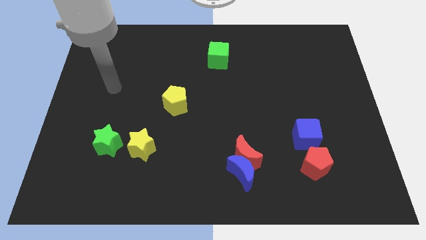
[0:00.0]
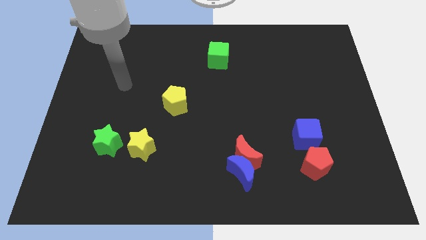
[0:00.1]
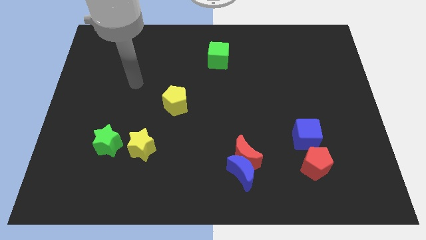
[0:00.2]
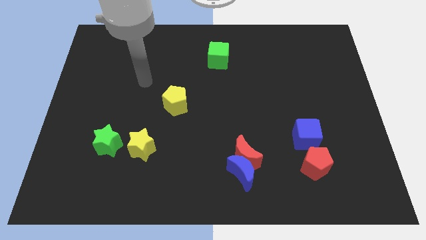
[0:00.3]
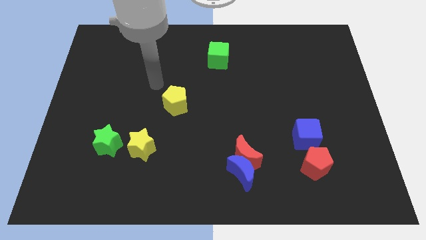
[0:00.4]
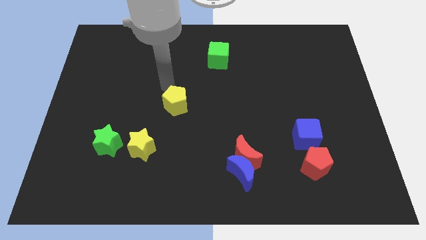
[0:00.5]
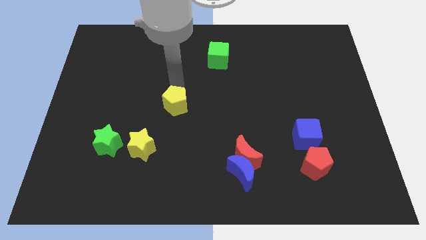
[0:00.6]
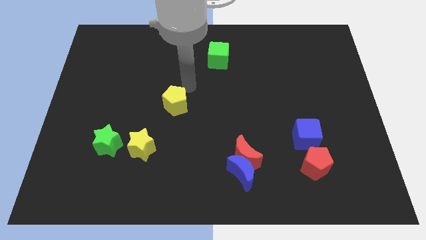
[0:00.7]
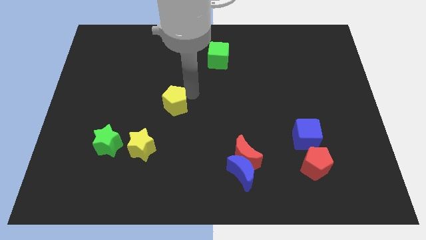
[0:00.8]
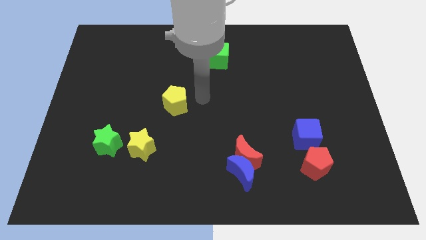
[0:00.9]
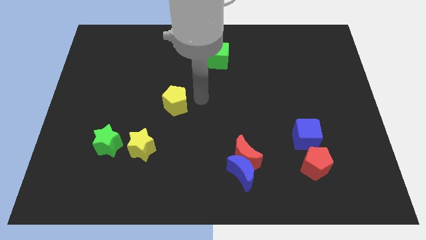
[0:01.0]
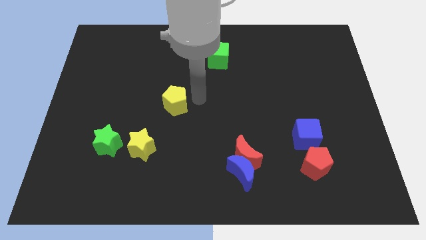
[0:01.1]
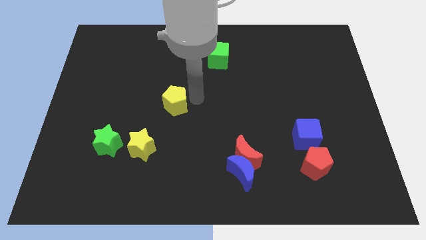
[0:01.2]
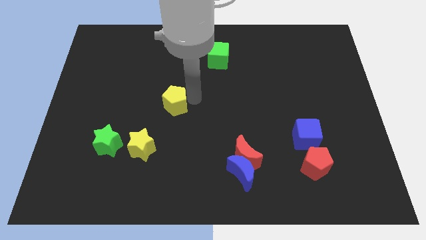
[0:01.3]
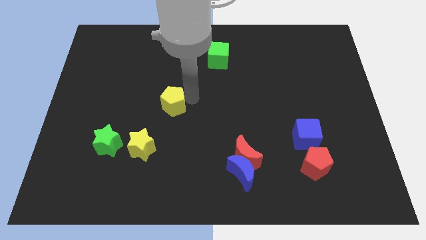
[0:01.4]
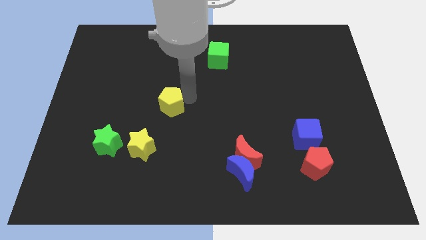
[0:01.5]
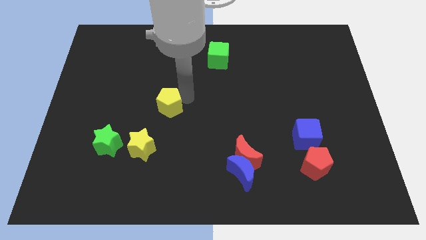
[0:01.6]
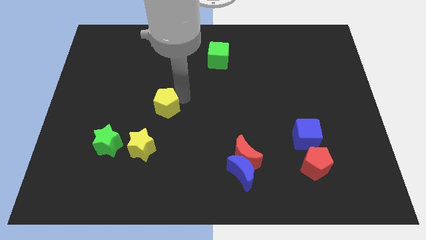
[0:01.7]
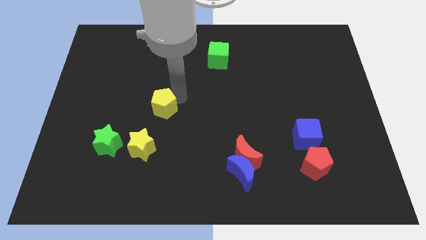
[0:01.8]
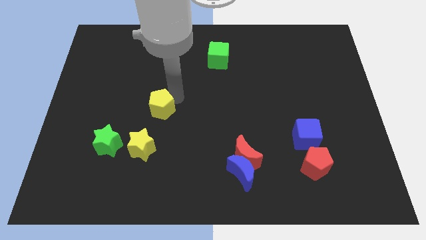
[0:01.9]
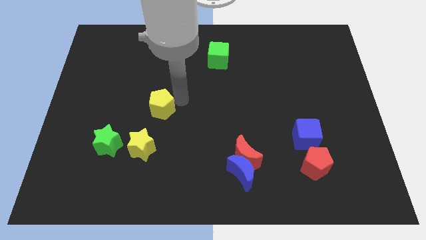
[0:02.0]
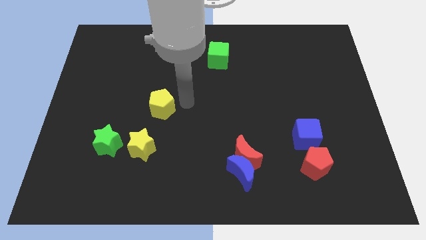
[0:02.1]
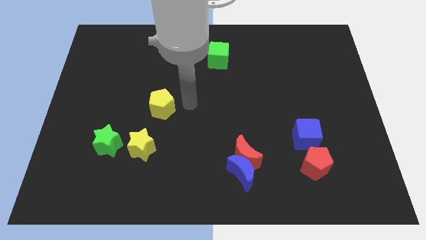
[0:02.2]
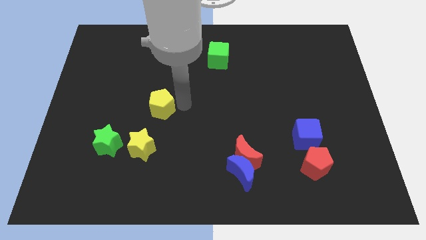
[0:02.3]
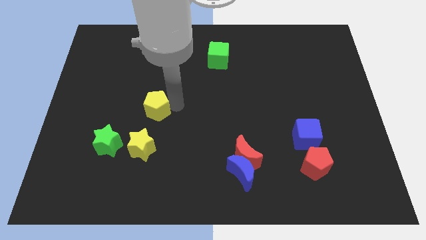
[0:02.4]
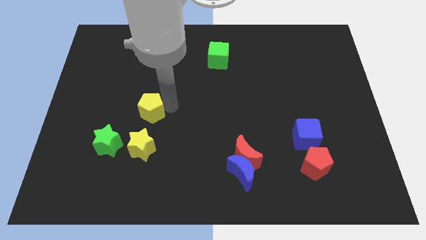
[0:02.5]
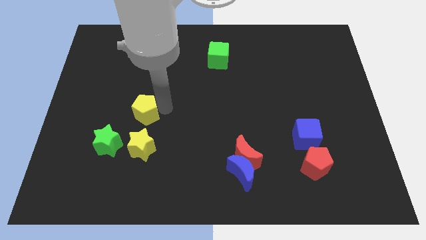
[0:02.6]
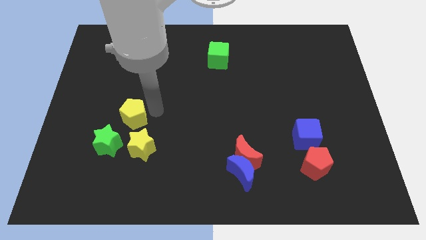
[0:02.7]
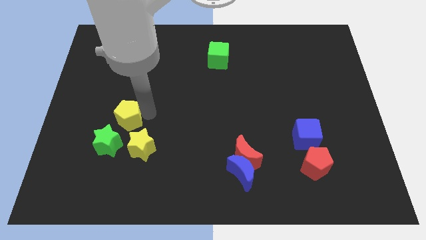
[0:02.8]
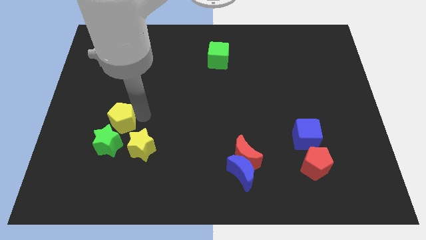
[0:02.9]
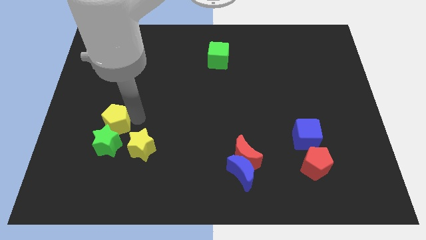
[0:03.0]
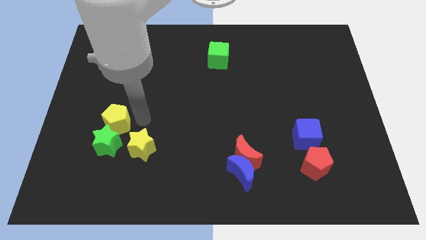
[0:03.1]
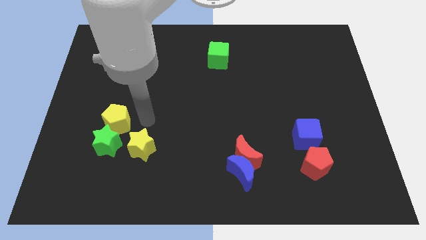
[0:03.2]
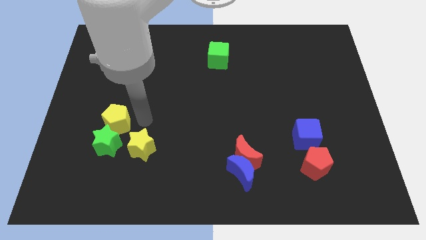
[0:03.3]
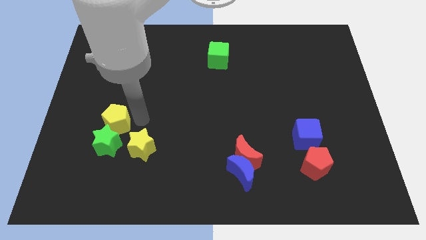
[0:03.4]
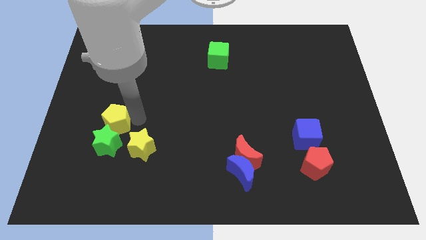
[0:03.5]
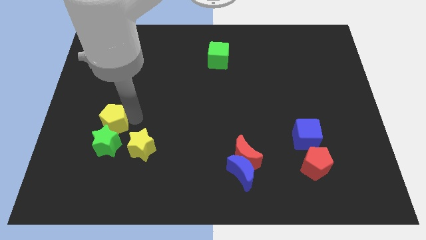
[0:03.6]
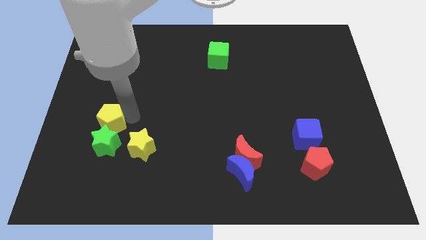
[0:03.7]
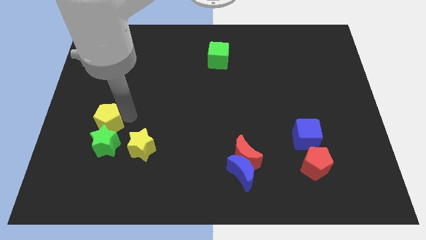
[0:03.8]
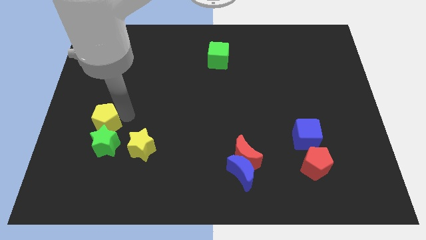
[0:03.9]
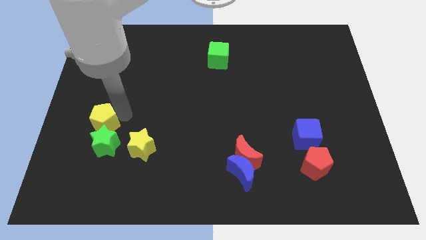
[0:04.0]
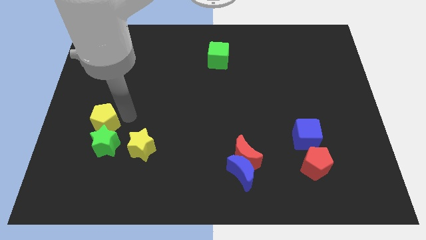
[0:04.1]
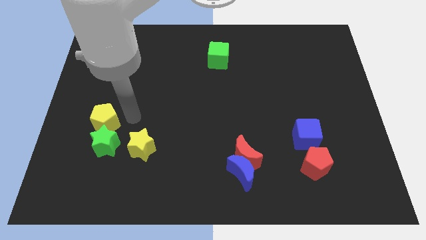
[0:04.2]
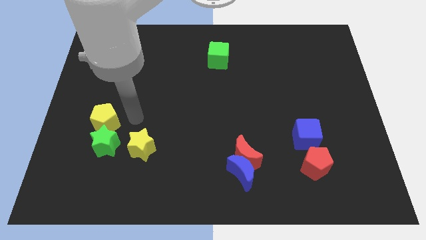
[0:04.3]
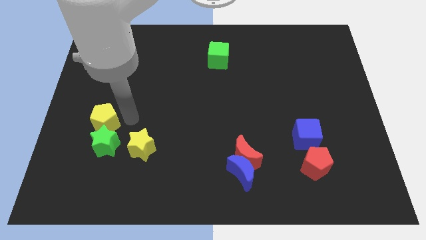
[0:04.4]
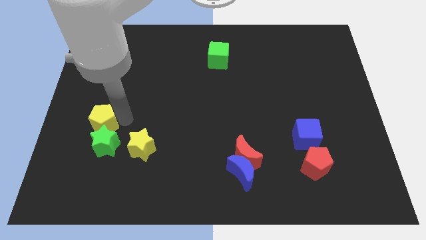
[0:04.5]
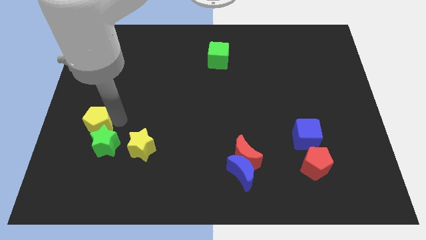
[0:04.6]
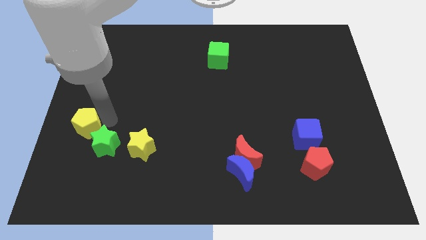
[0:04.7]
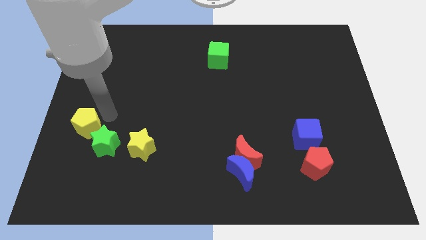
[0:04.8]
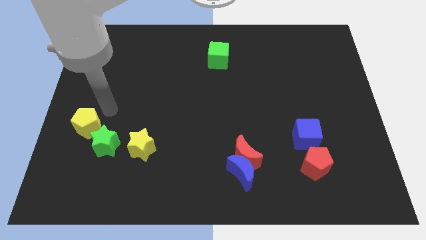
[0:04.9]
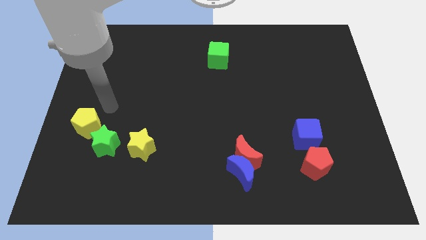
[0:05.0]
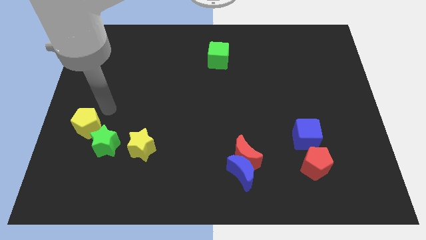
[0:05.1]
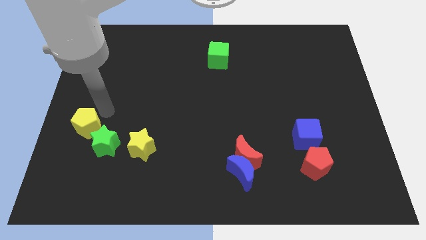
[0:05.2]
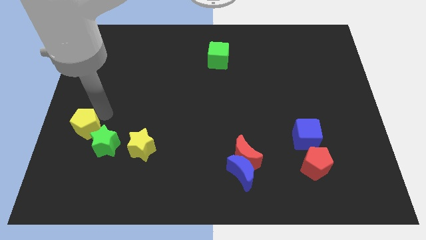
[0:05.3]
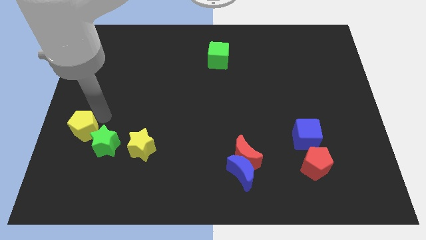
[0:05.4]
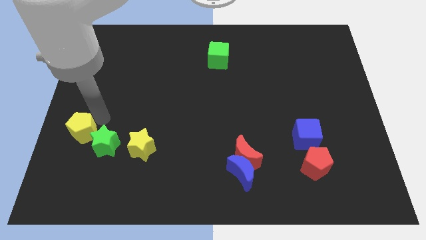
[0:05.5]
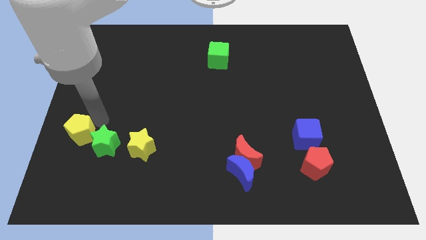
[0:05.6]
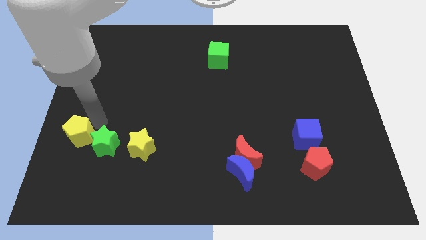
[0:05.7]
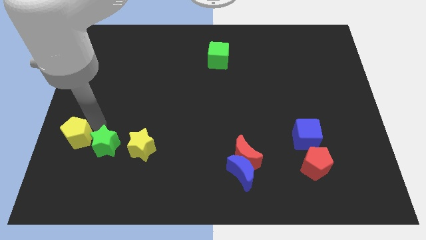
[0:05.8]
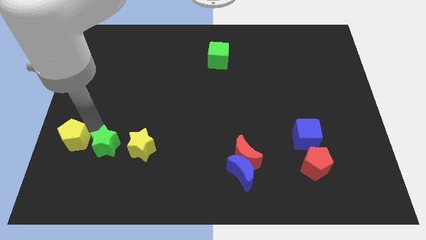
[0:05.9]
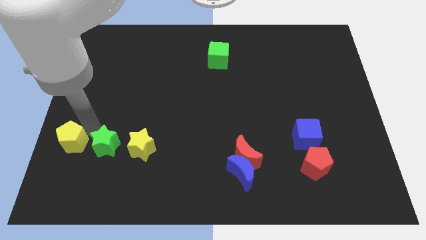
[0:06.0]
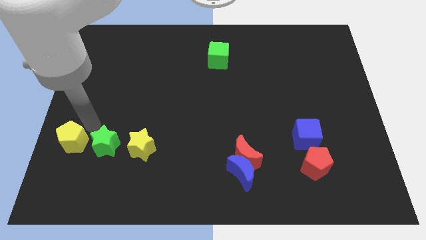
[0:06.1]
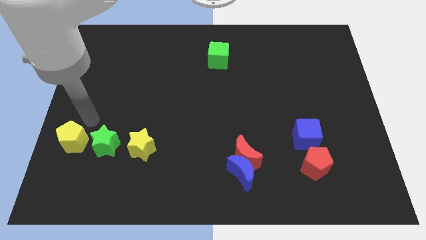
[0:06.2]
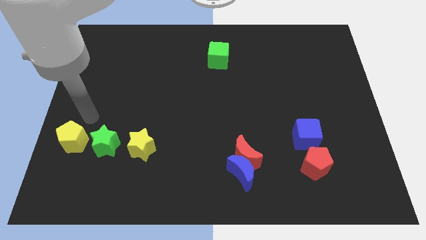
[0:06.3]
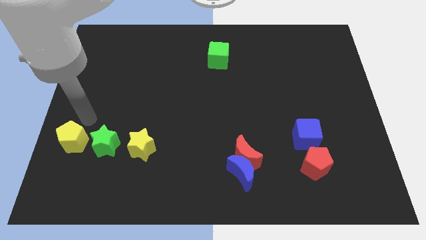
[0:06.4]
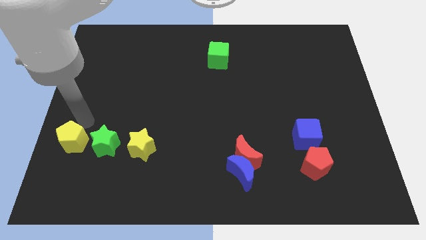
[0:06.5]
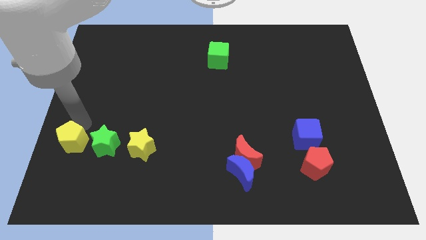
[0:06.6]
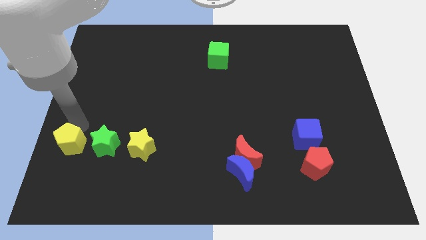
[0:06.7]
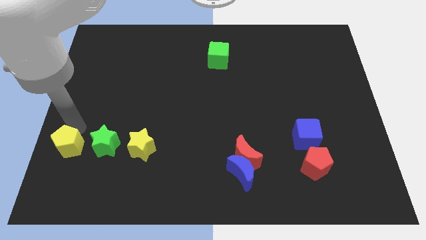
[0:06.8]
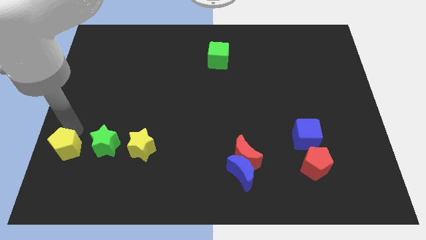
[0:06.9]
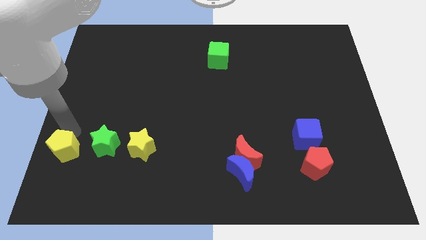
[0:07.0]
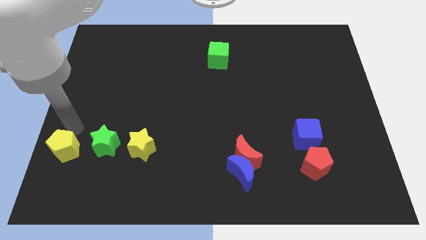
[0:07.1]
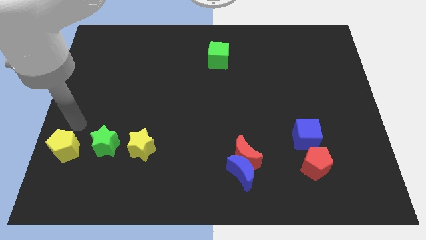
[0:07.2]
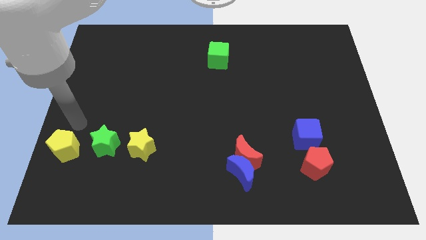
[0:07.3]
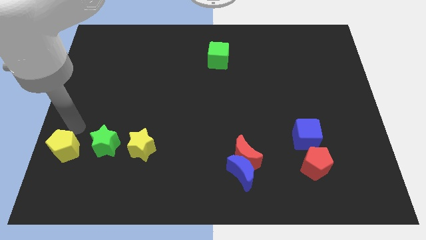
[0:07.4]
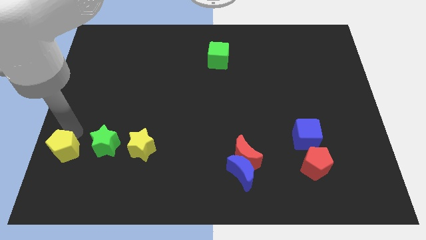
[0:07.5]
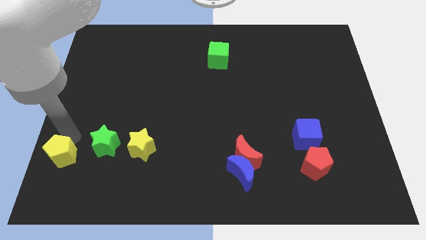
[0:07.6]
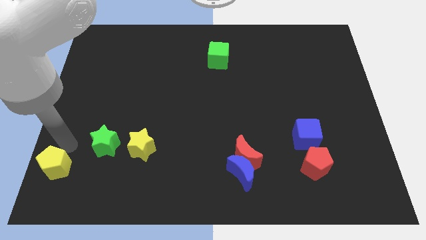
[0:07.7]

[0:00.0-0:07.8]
slide the yellow pentagon to the bottom left corner
